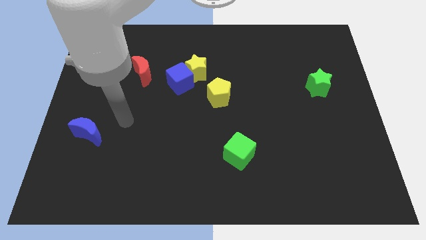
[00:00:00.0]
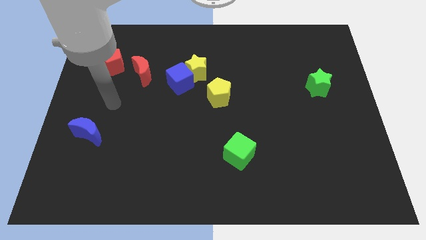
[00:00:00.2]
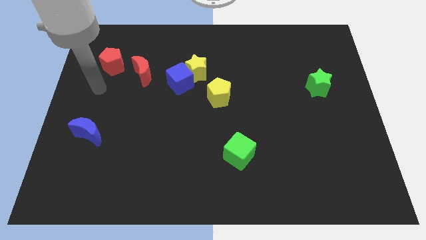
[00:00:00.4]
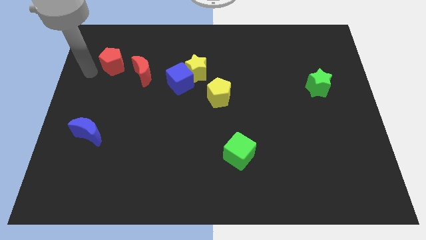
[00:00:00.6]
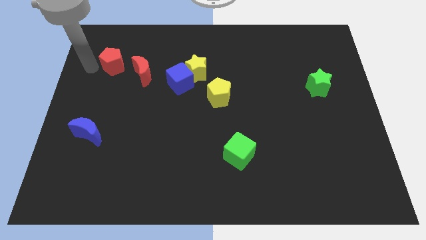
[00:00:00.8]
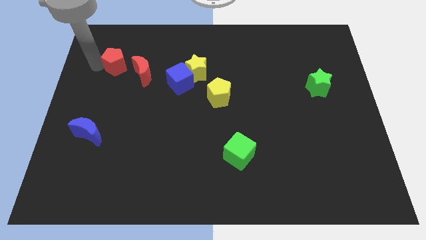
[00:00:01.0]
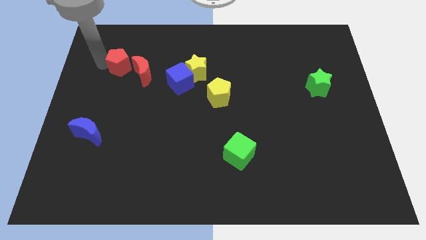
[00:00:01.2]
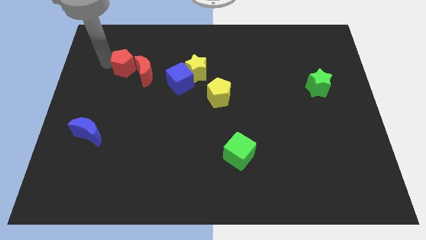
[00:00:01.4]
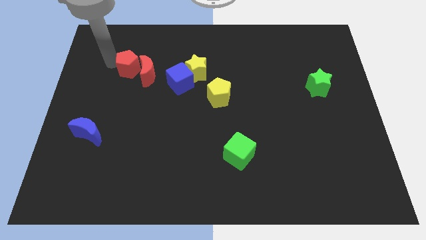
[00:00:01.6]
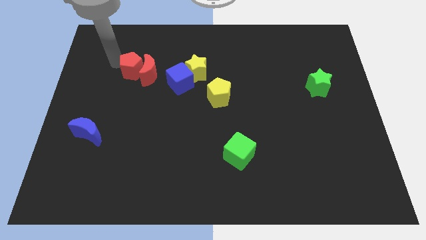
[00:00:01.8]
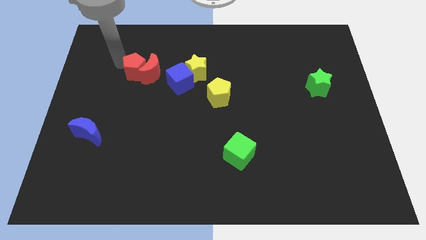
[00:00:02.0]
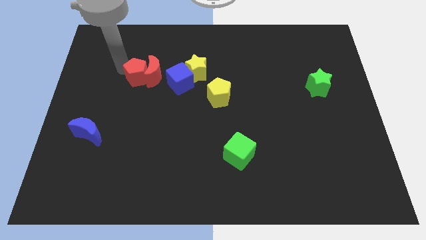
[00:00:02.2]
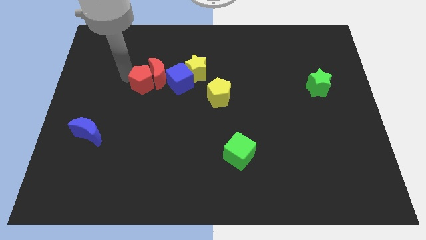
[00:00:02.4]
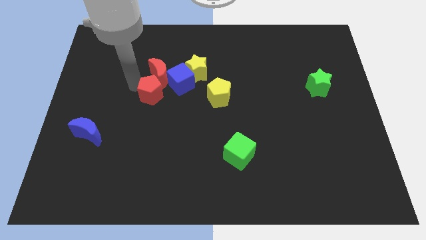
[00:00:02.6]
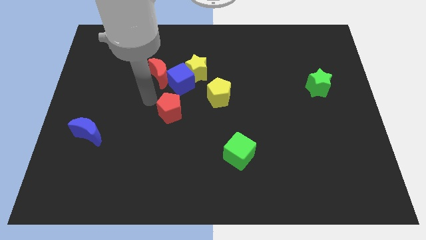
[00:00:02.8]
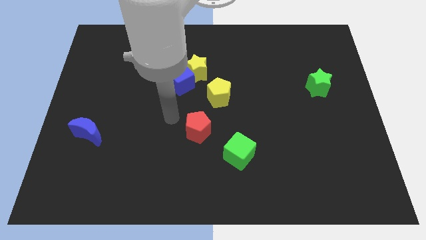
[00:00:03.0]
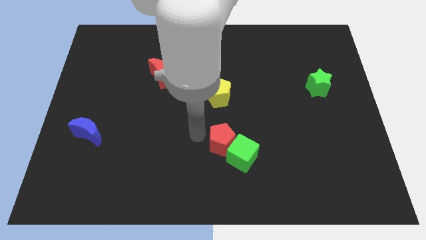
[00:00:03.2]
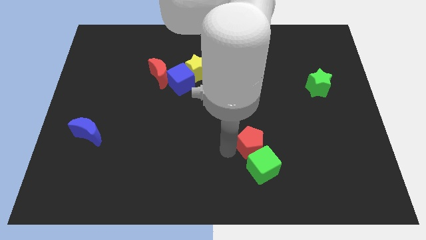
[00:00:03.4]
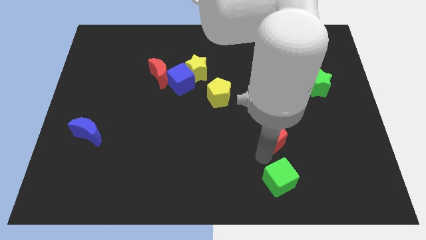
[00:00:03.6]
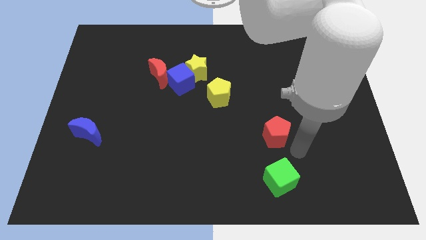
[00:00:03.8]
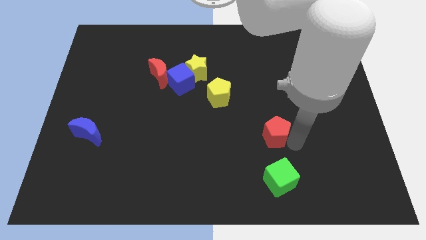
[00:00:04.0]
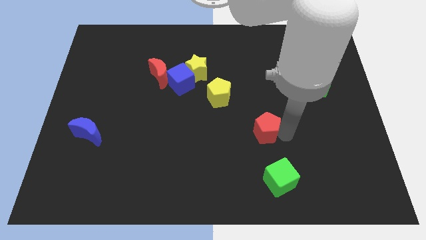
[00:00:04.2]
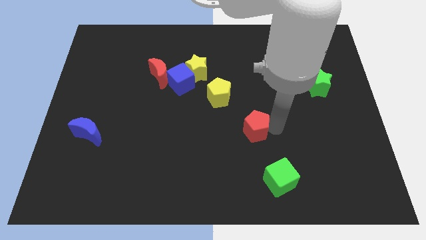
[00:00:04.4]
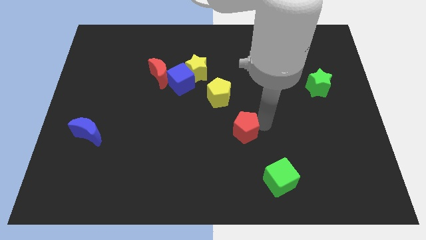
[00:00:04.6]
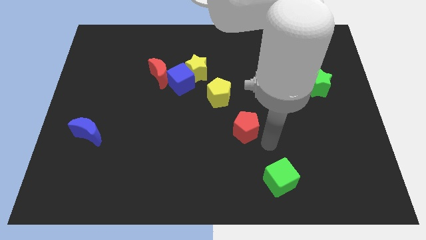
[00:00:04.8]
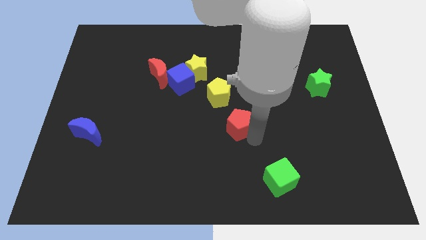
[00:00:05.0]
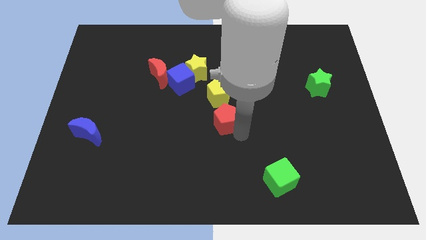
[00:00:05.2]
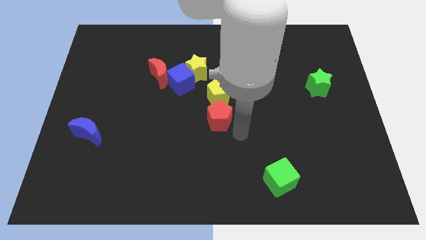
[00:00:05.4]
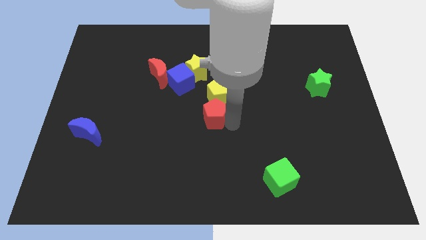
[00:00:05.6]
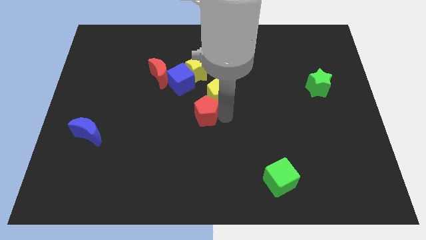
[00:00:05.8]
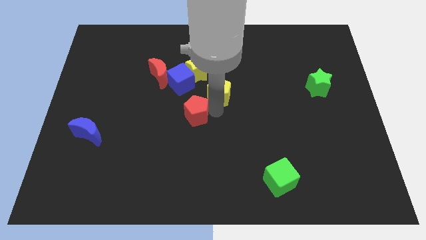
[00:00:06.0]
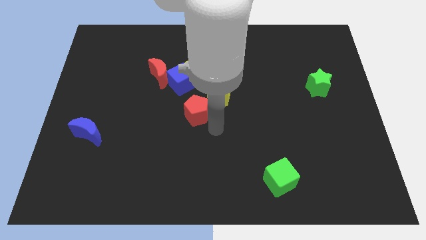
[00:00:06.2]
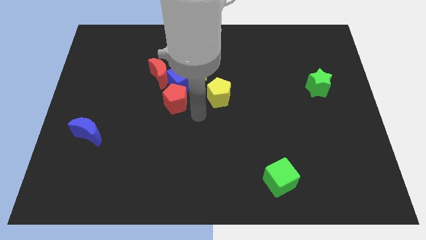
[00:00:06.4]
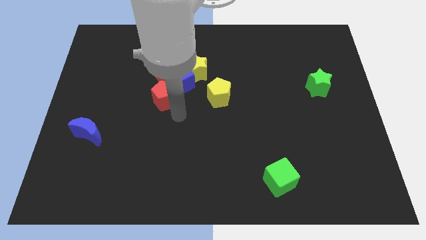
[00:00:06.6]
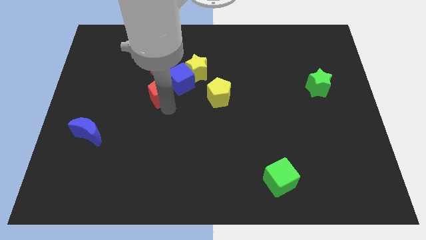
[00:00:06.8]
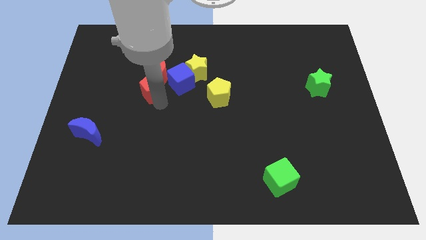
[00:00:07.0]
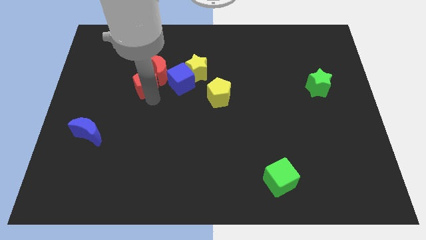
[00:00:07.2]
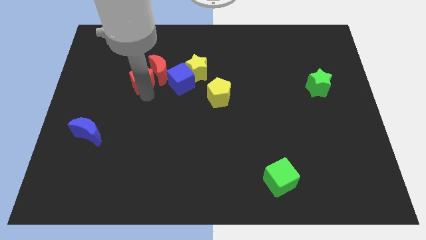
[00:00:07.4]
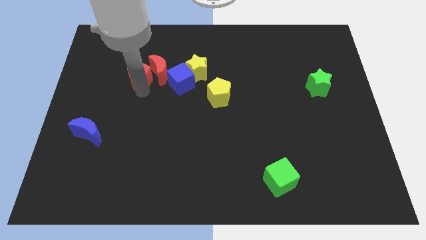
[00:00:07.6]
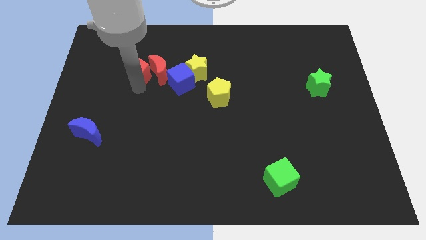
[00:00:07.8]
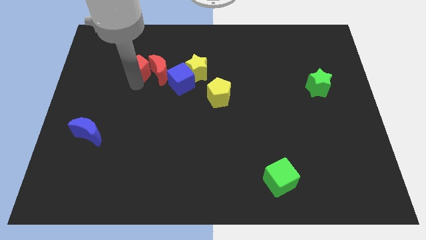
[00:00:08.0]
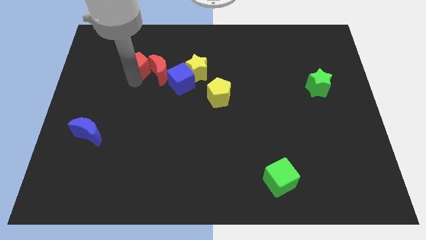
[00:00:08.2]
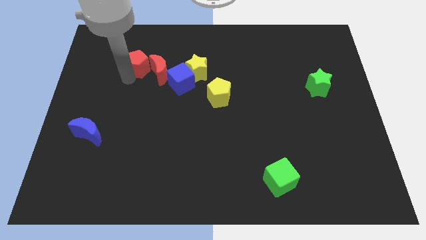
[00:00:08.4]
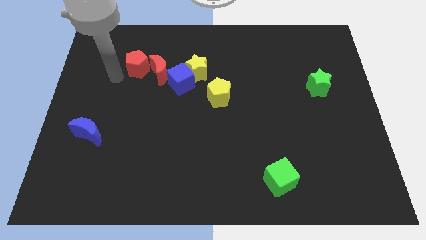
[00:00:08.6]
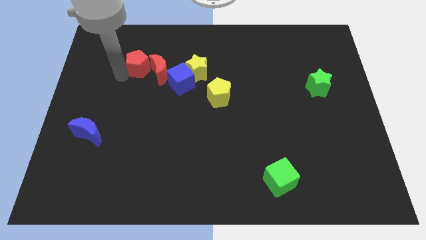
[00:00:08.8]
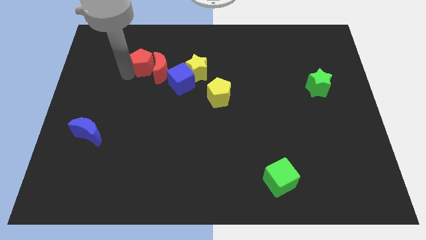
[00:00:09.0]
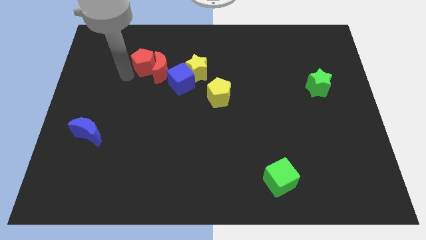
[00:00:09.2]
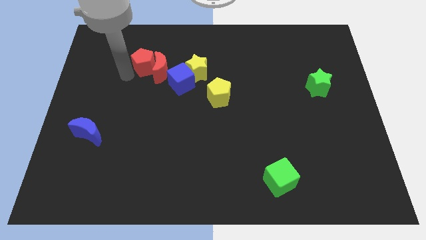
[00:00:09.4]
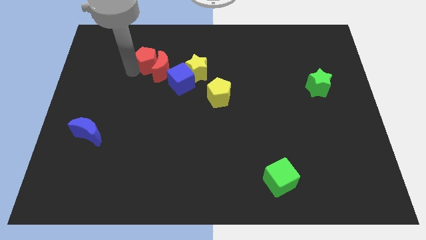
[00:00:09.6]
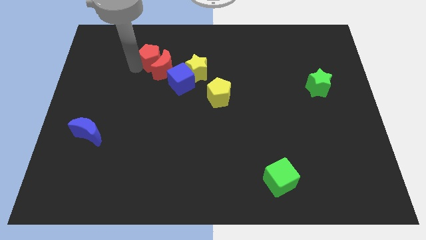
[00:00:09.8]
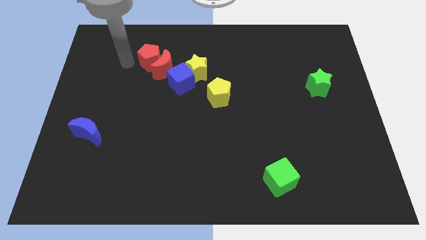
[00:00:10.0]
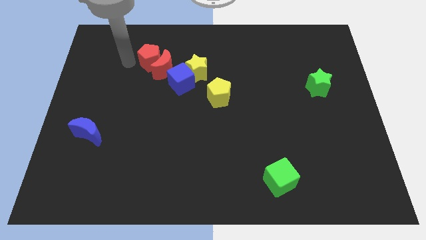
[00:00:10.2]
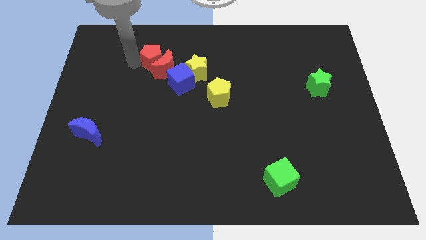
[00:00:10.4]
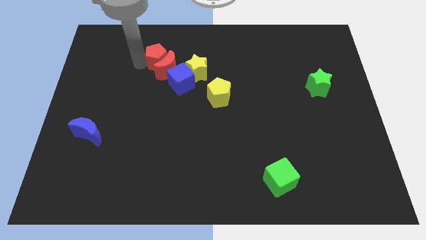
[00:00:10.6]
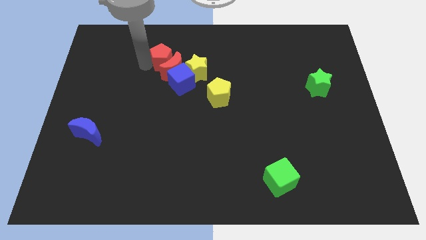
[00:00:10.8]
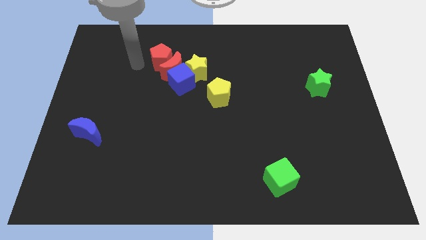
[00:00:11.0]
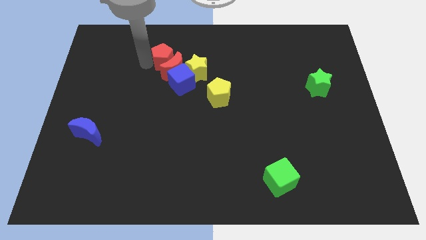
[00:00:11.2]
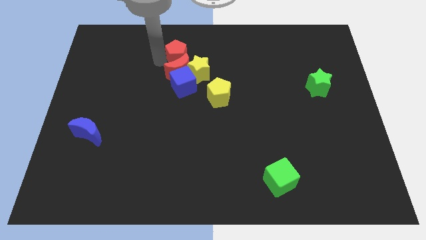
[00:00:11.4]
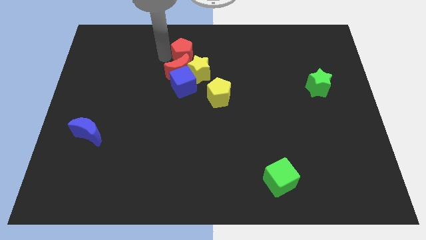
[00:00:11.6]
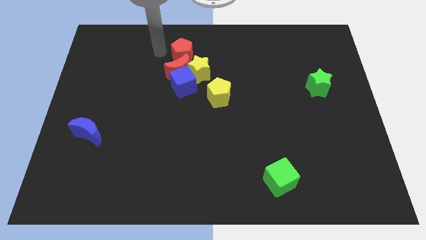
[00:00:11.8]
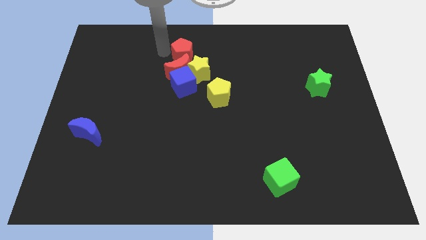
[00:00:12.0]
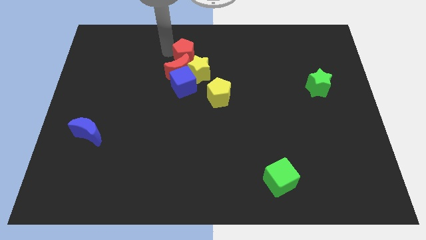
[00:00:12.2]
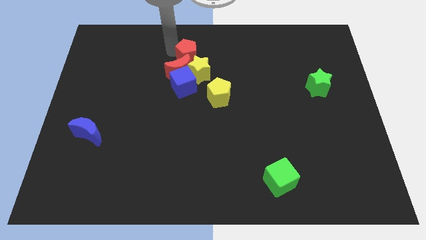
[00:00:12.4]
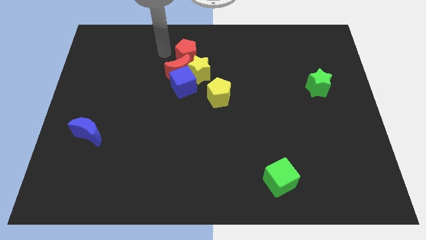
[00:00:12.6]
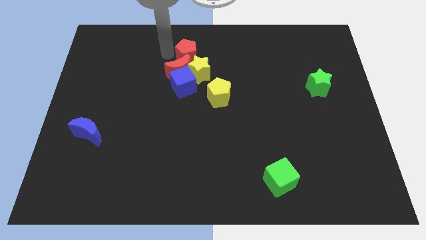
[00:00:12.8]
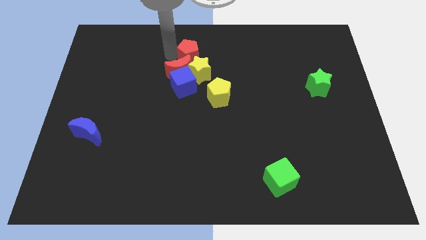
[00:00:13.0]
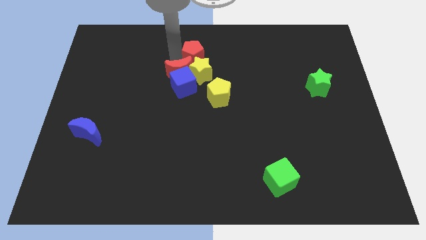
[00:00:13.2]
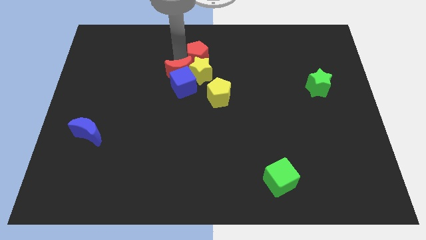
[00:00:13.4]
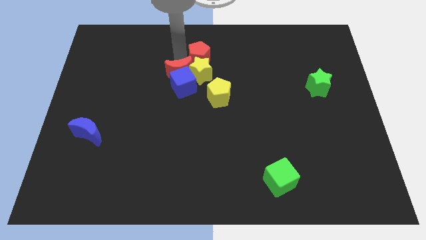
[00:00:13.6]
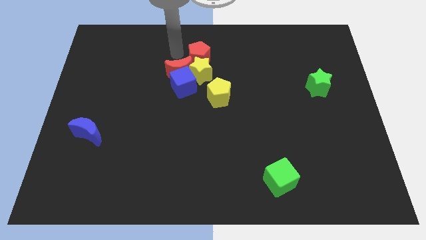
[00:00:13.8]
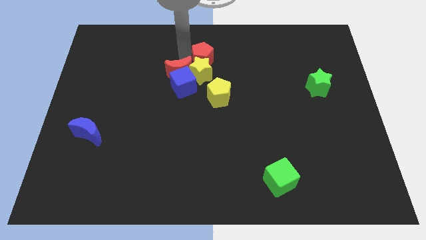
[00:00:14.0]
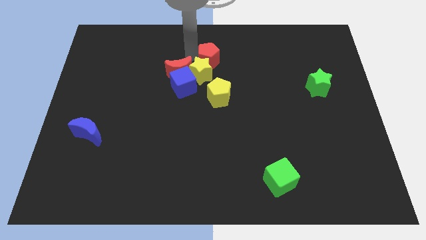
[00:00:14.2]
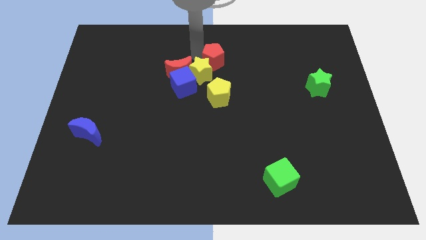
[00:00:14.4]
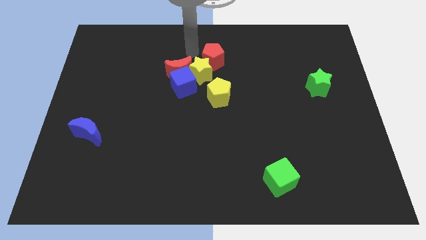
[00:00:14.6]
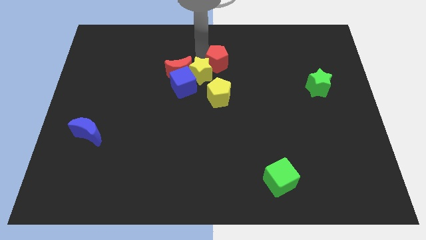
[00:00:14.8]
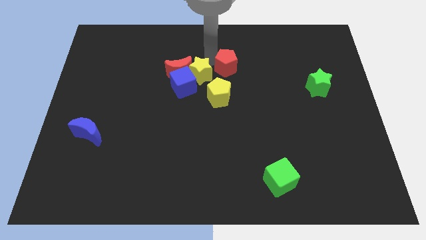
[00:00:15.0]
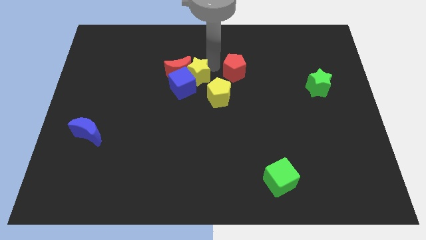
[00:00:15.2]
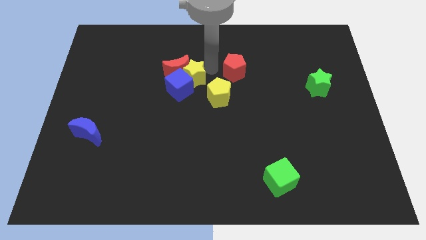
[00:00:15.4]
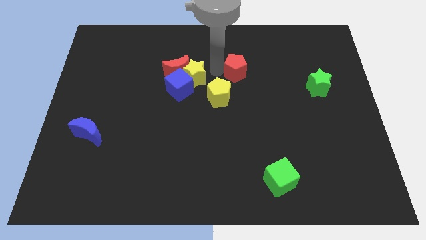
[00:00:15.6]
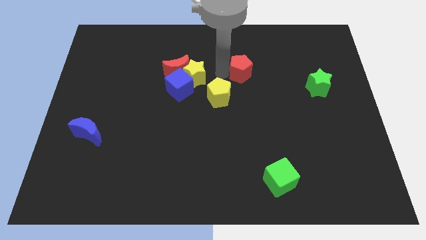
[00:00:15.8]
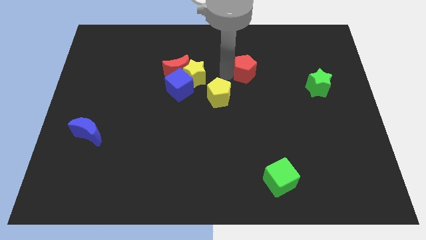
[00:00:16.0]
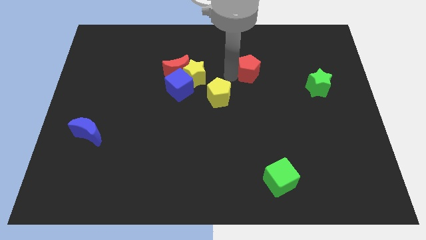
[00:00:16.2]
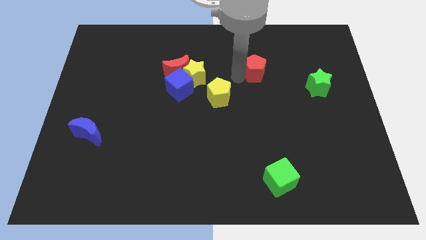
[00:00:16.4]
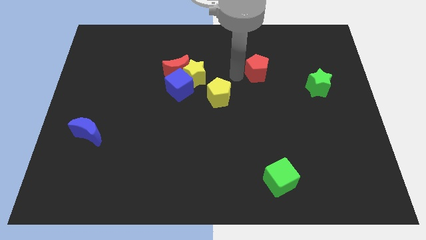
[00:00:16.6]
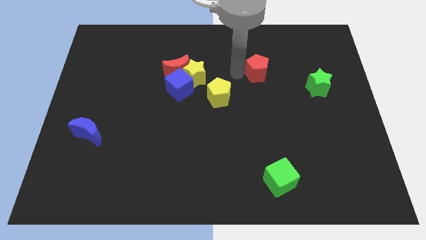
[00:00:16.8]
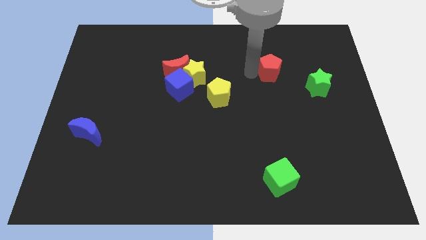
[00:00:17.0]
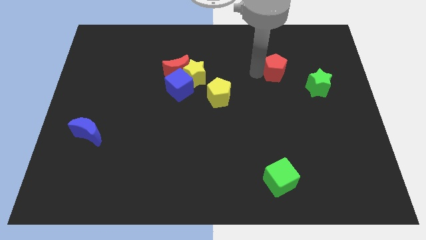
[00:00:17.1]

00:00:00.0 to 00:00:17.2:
push the red pentagon diagonally up and to the left of the green star
